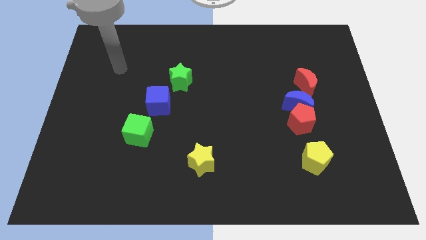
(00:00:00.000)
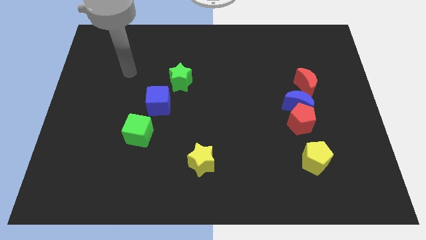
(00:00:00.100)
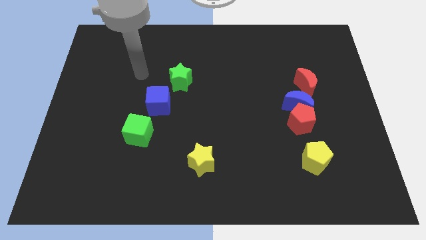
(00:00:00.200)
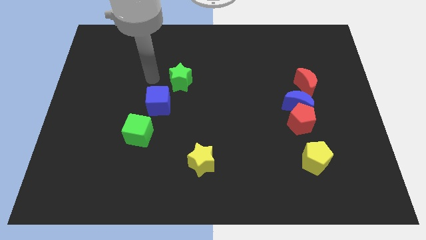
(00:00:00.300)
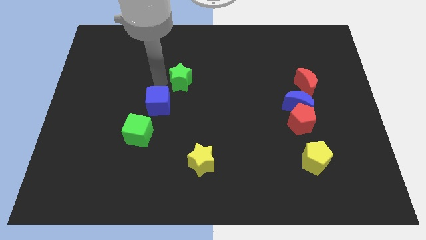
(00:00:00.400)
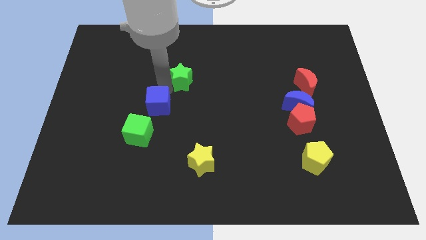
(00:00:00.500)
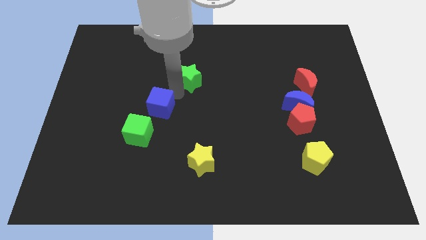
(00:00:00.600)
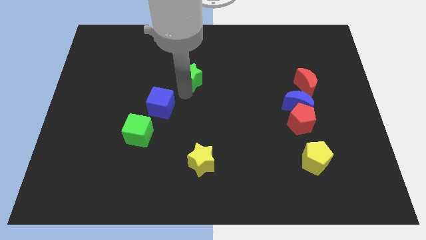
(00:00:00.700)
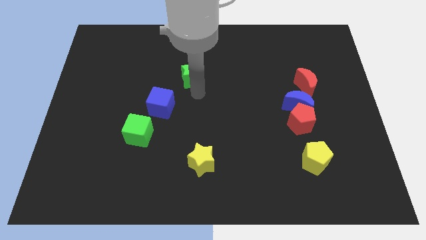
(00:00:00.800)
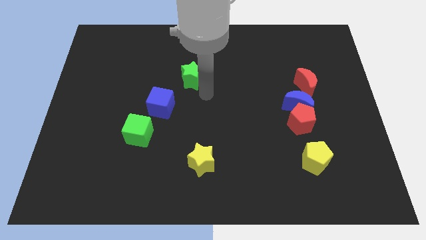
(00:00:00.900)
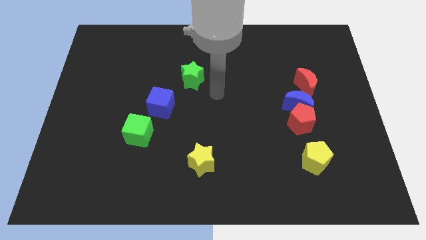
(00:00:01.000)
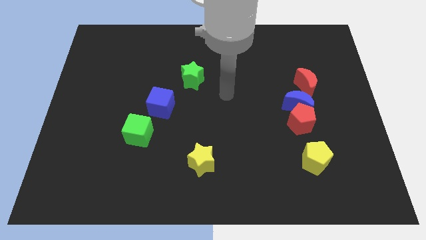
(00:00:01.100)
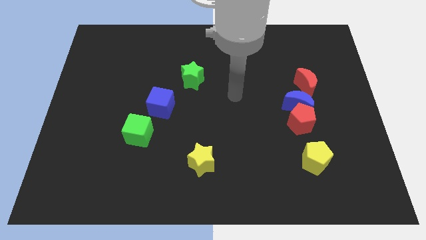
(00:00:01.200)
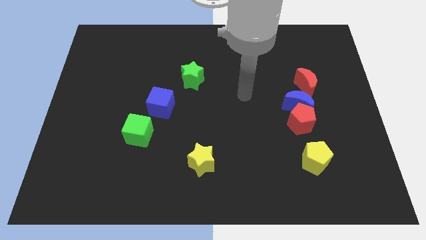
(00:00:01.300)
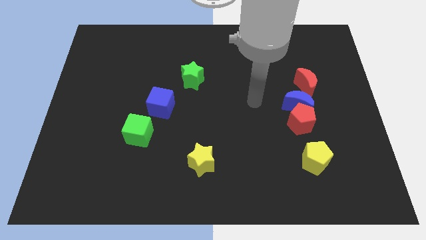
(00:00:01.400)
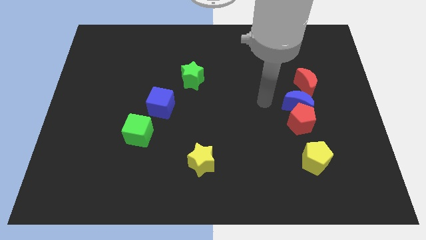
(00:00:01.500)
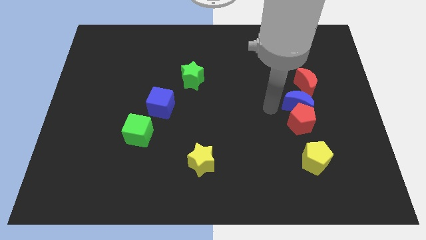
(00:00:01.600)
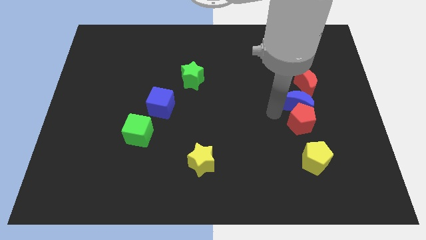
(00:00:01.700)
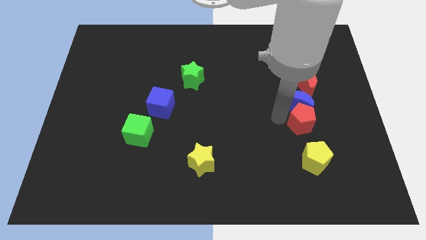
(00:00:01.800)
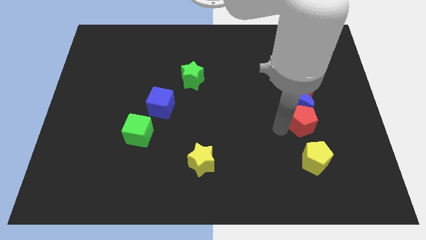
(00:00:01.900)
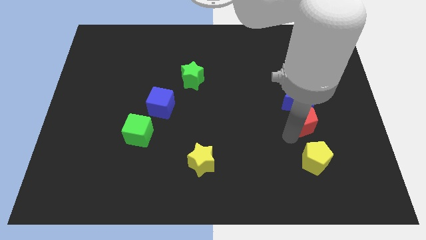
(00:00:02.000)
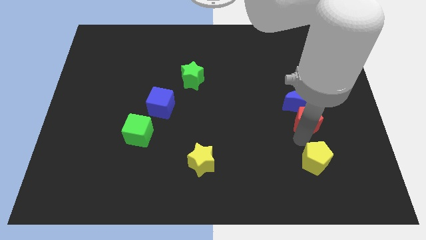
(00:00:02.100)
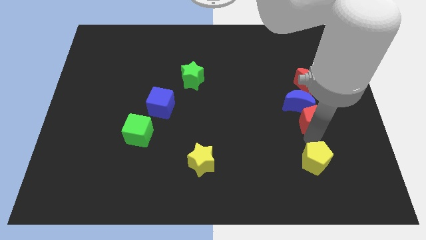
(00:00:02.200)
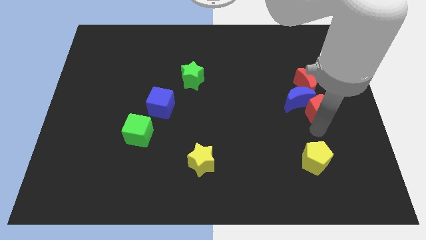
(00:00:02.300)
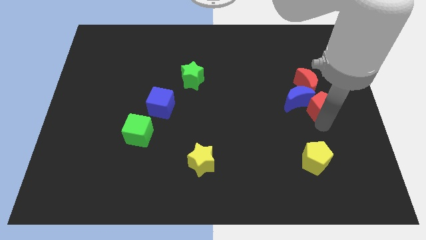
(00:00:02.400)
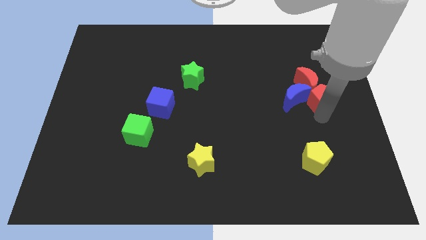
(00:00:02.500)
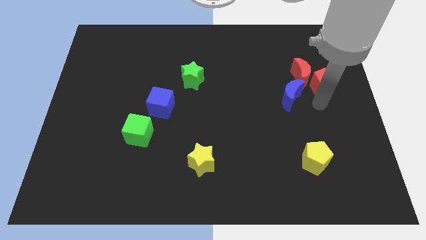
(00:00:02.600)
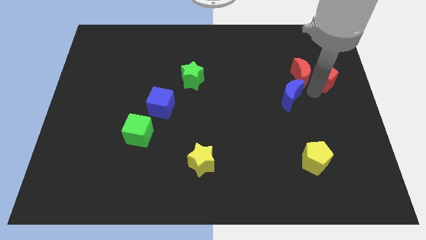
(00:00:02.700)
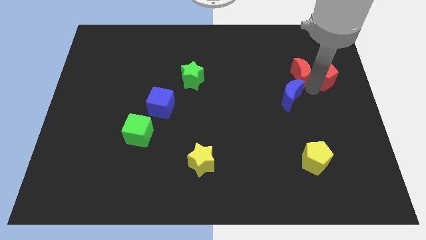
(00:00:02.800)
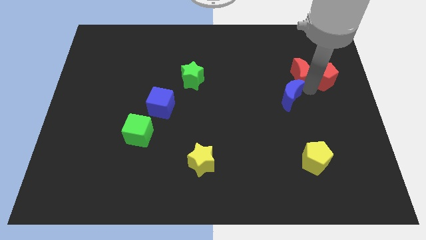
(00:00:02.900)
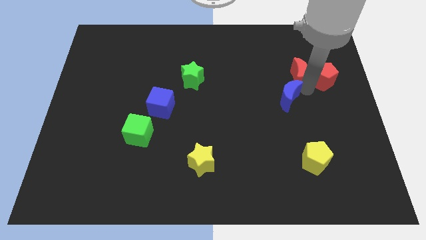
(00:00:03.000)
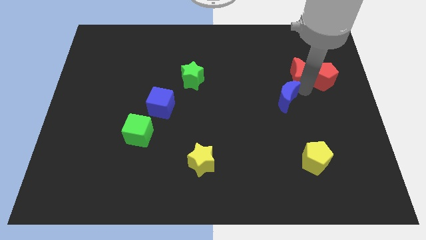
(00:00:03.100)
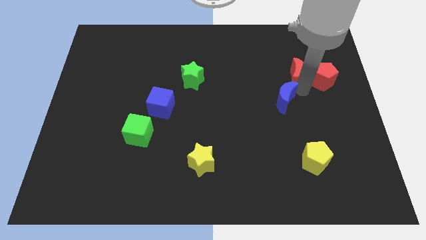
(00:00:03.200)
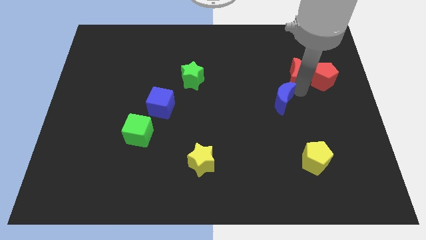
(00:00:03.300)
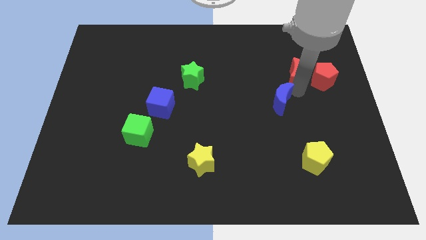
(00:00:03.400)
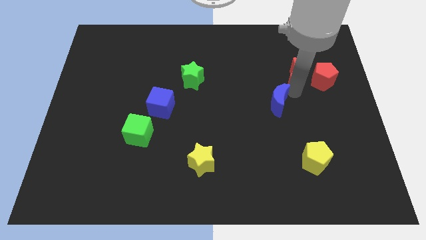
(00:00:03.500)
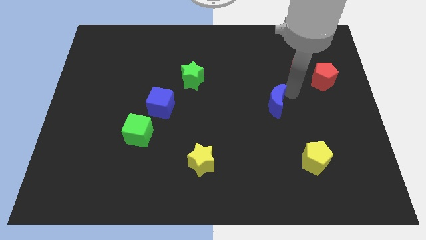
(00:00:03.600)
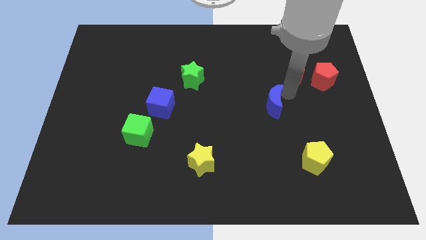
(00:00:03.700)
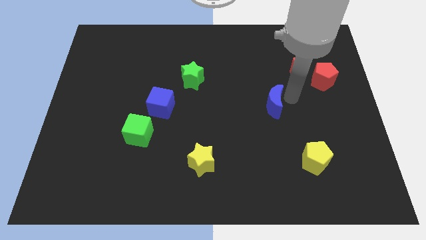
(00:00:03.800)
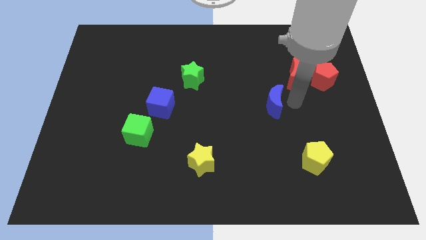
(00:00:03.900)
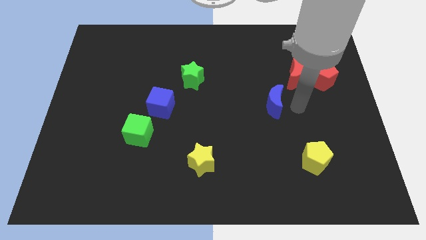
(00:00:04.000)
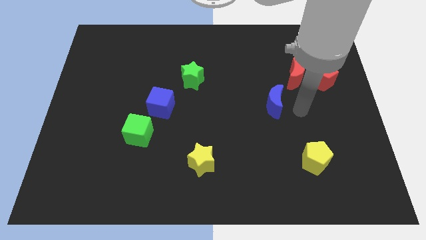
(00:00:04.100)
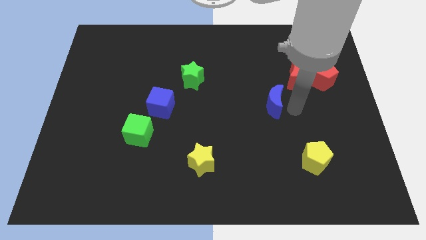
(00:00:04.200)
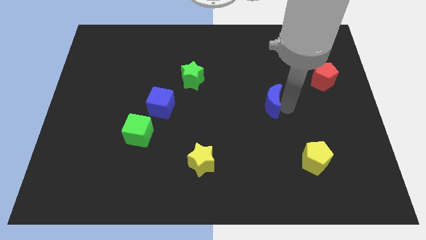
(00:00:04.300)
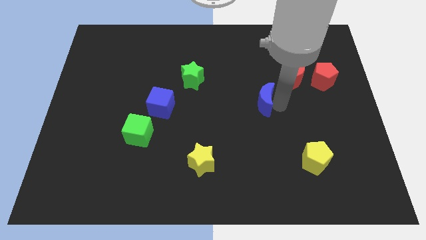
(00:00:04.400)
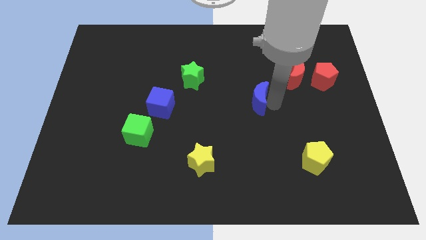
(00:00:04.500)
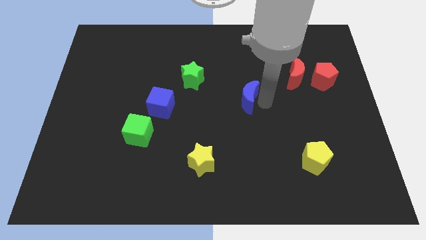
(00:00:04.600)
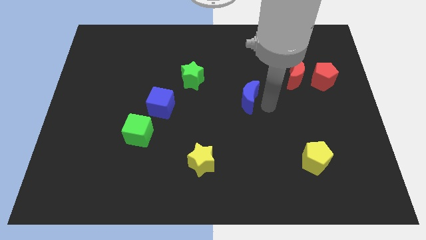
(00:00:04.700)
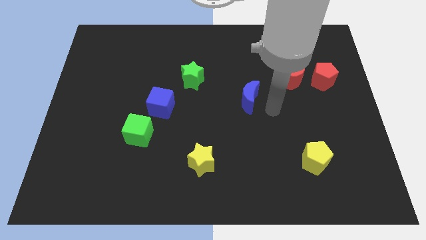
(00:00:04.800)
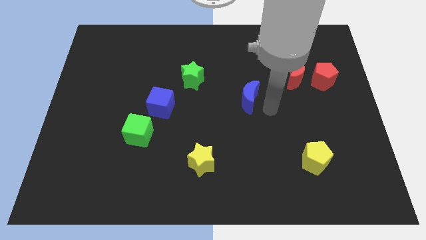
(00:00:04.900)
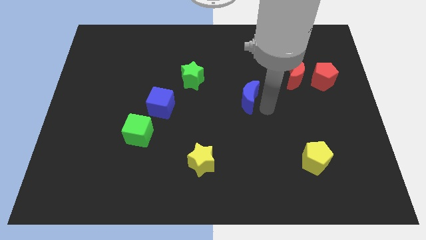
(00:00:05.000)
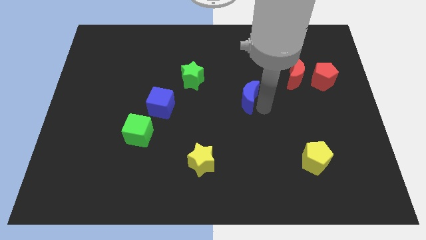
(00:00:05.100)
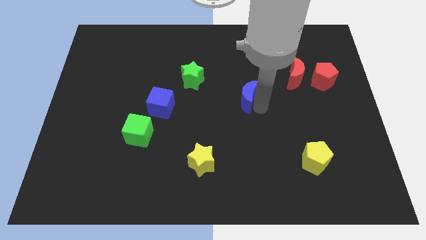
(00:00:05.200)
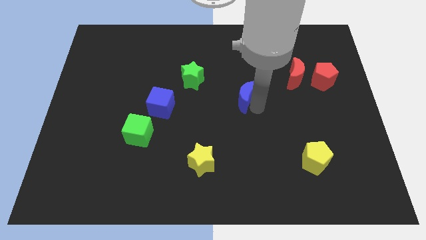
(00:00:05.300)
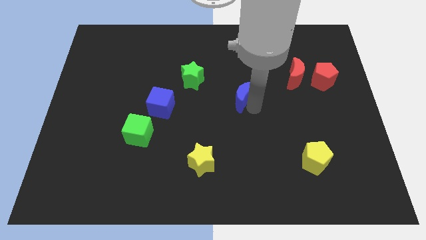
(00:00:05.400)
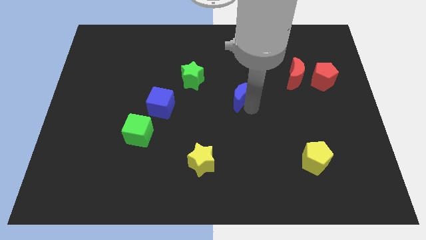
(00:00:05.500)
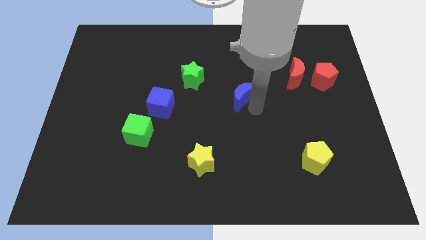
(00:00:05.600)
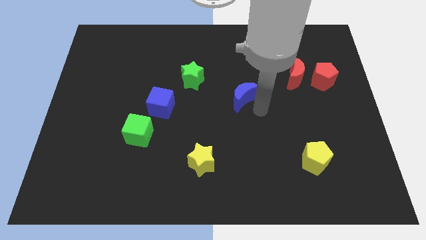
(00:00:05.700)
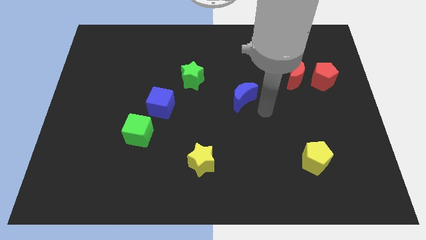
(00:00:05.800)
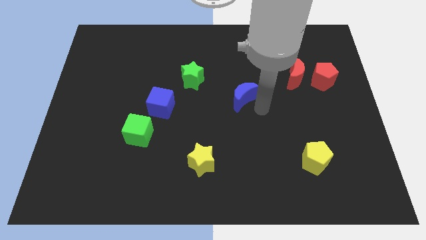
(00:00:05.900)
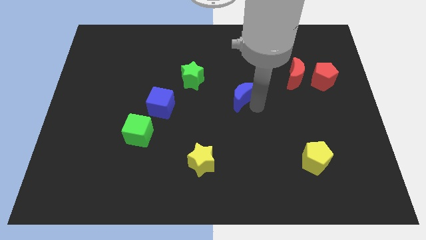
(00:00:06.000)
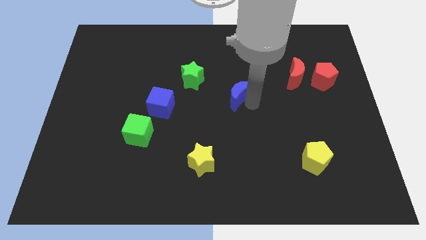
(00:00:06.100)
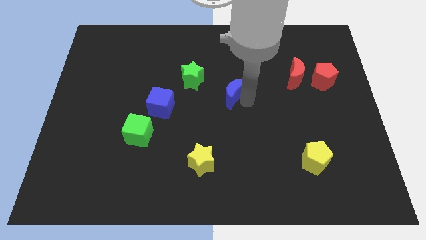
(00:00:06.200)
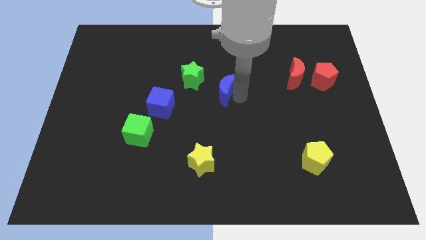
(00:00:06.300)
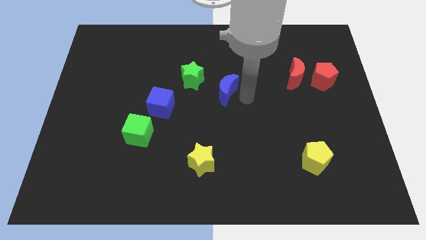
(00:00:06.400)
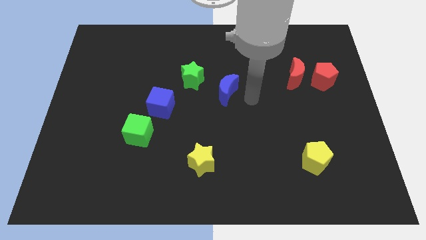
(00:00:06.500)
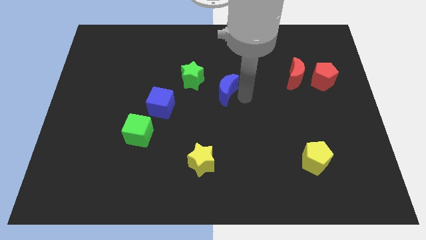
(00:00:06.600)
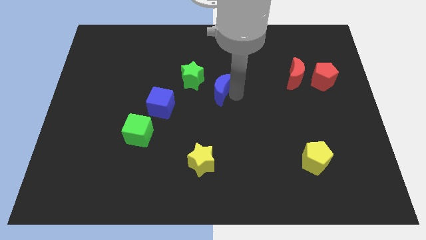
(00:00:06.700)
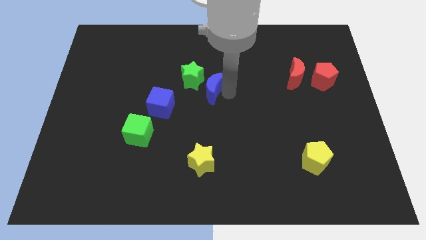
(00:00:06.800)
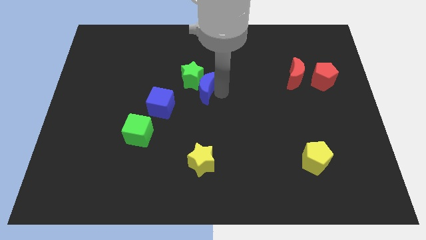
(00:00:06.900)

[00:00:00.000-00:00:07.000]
put the blue moon to the green star
